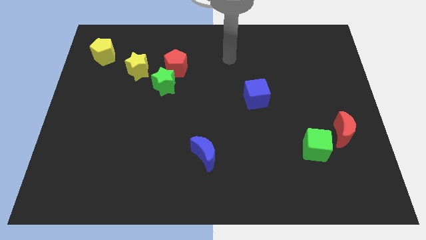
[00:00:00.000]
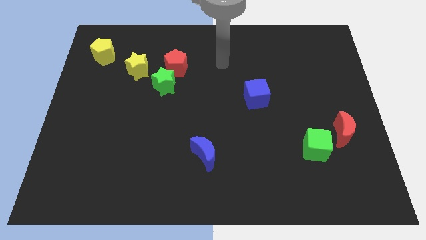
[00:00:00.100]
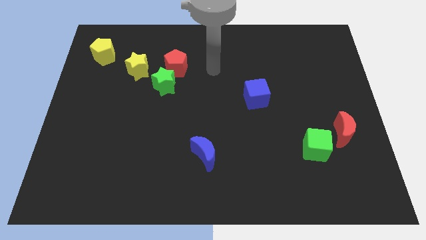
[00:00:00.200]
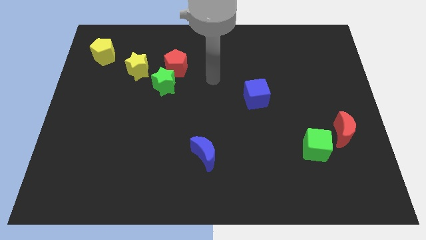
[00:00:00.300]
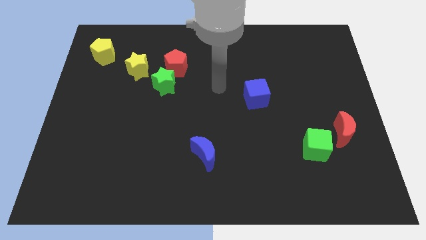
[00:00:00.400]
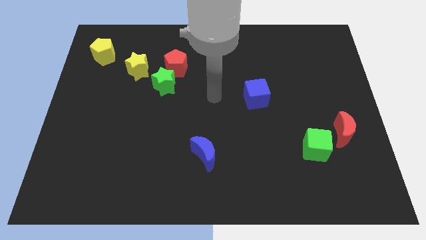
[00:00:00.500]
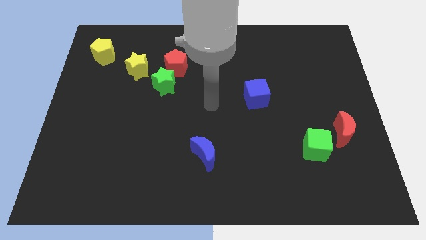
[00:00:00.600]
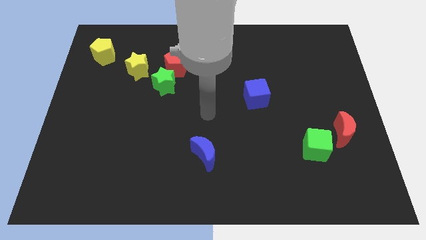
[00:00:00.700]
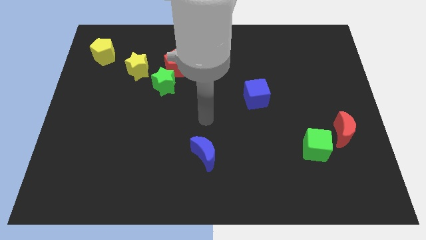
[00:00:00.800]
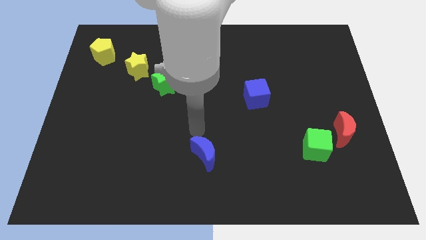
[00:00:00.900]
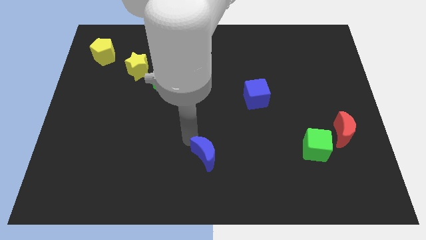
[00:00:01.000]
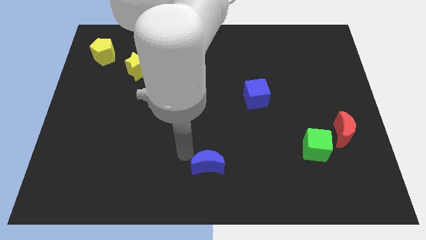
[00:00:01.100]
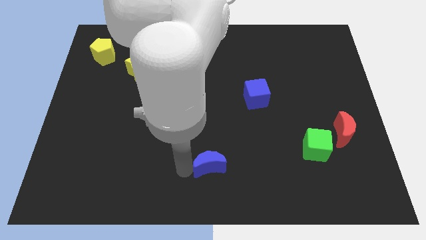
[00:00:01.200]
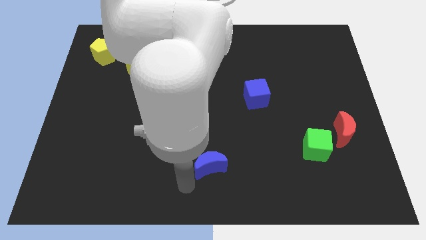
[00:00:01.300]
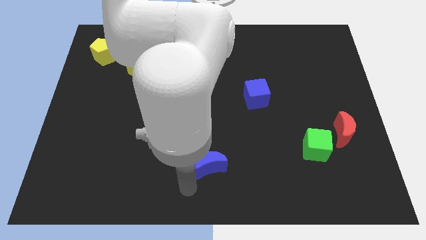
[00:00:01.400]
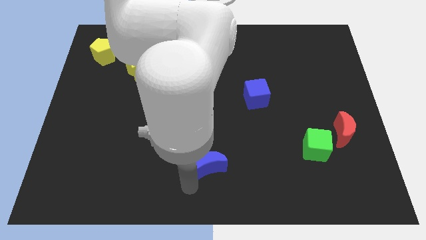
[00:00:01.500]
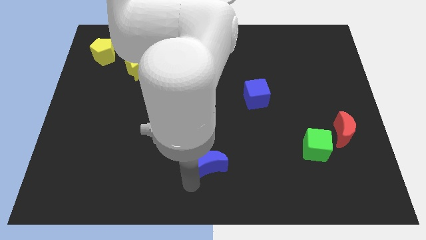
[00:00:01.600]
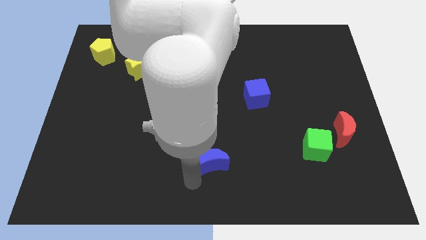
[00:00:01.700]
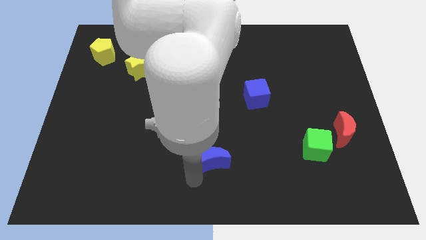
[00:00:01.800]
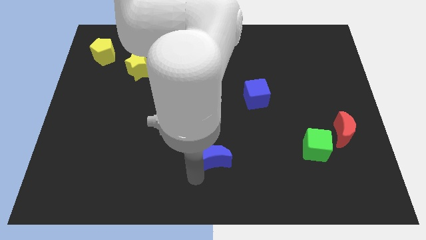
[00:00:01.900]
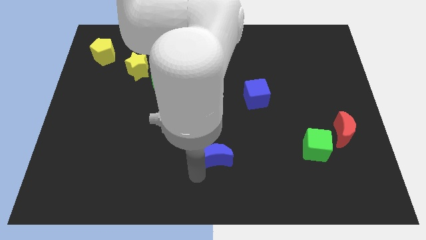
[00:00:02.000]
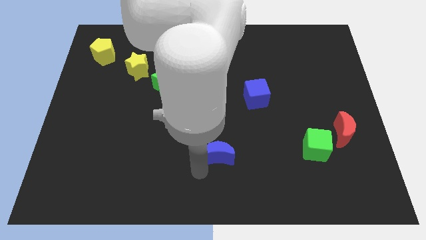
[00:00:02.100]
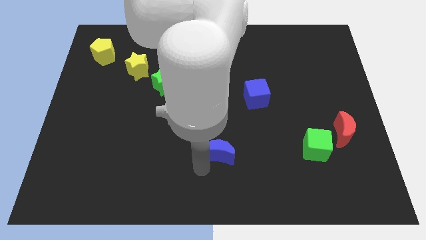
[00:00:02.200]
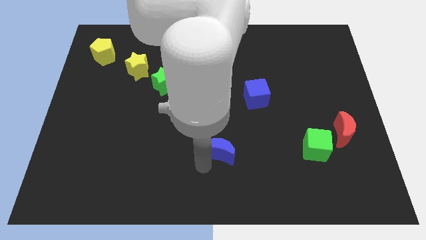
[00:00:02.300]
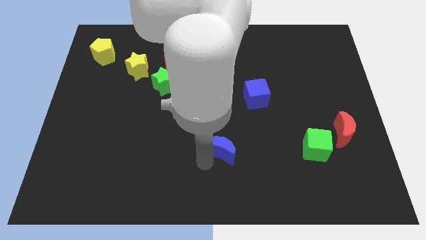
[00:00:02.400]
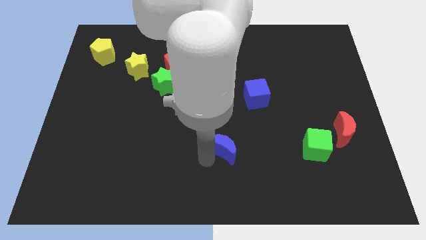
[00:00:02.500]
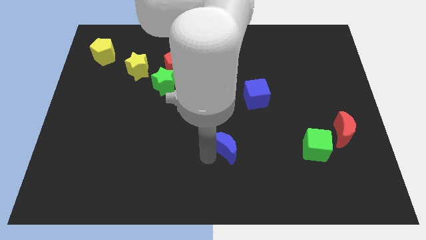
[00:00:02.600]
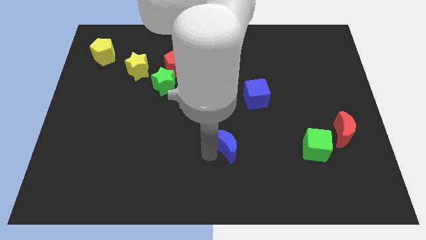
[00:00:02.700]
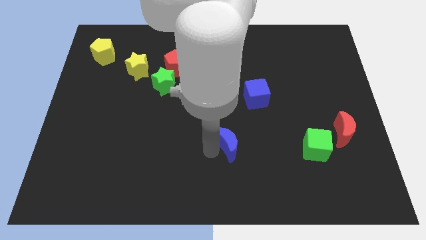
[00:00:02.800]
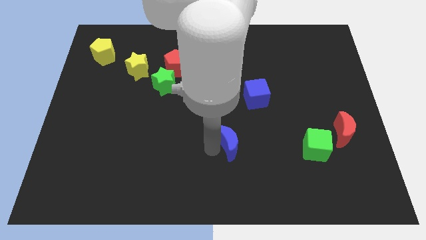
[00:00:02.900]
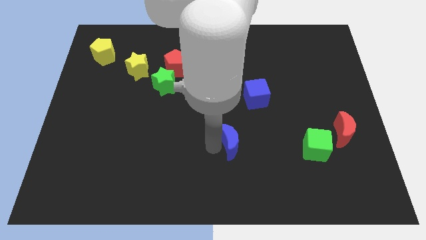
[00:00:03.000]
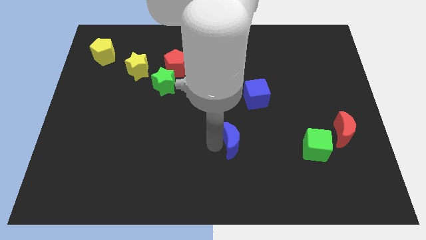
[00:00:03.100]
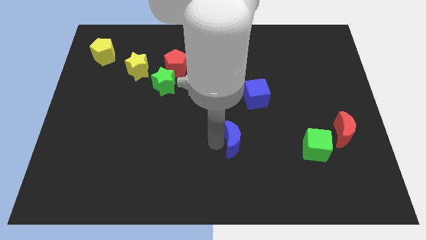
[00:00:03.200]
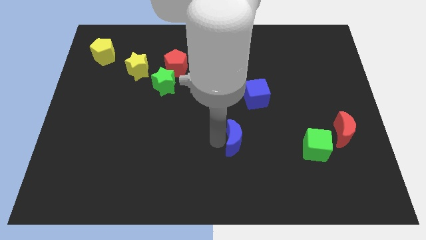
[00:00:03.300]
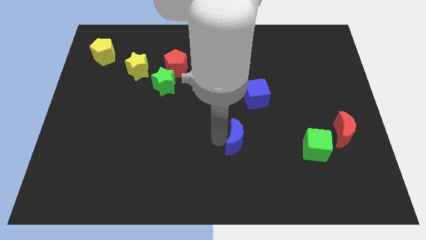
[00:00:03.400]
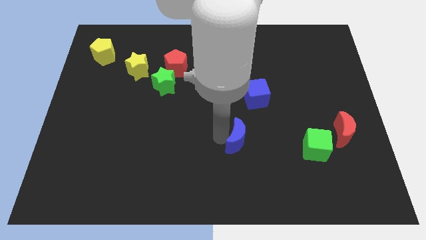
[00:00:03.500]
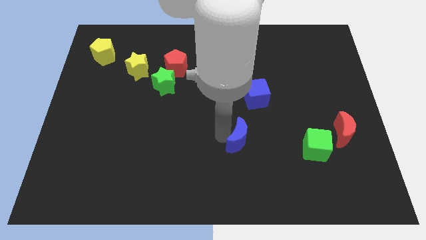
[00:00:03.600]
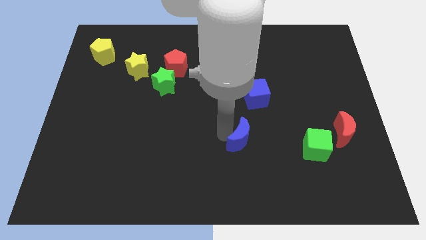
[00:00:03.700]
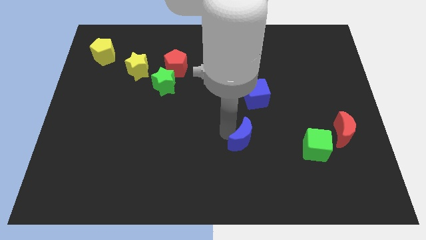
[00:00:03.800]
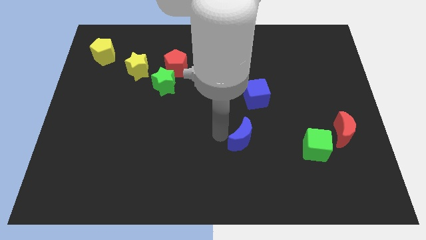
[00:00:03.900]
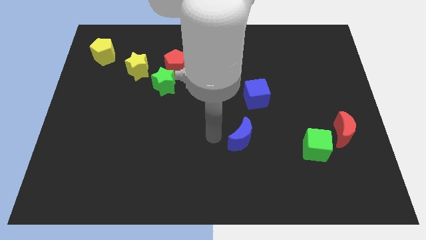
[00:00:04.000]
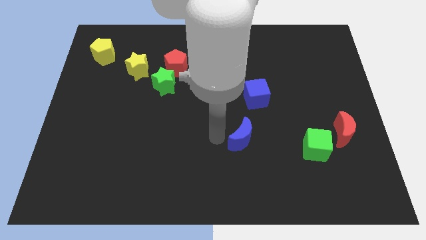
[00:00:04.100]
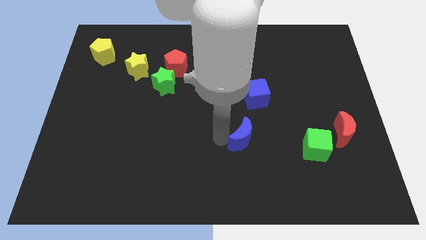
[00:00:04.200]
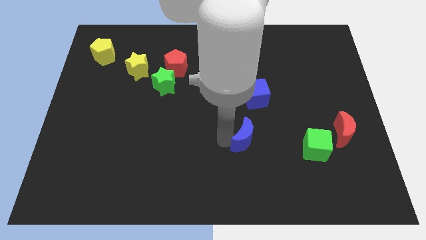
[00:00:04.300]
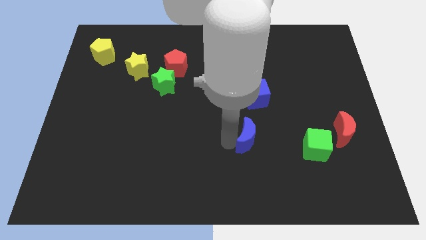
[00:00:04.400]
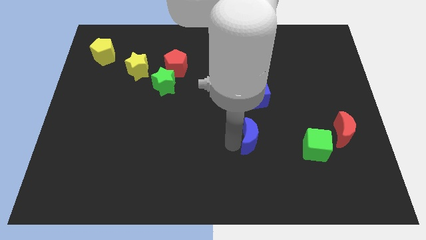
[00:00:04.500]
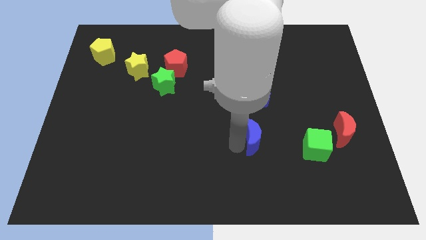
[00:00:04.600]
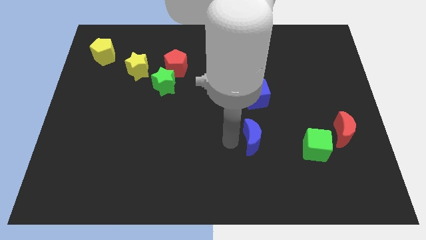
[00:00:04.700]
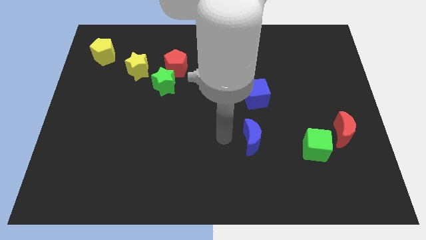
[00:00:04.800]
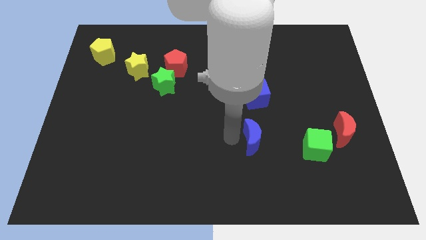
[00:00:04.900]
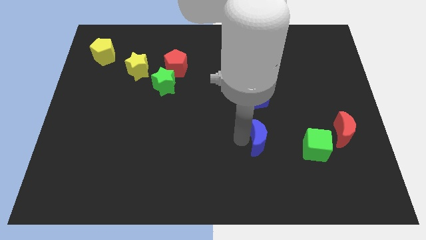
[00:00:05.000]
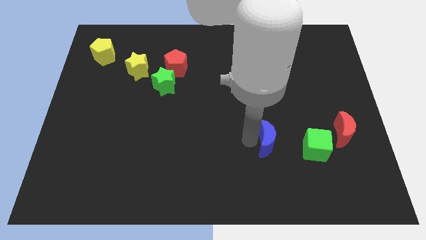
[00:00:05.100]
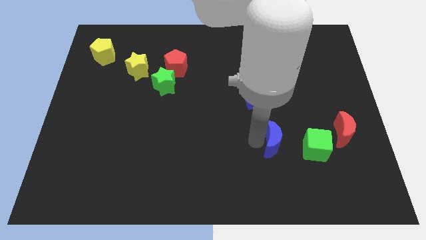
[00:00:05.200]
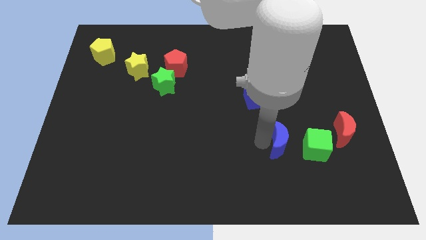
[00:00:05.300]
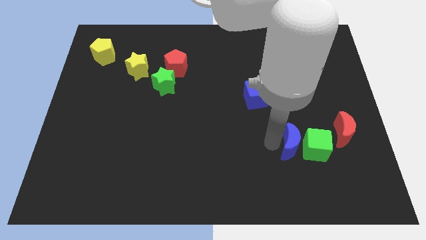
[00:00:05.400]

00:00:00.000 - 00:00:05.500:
slide the blue moon next to the green cube

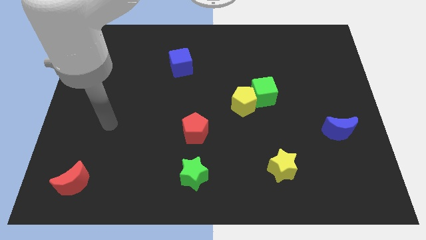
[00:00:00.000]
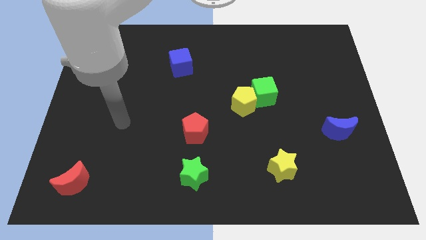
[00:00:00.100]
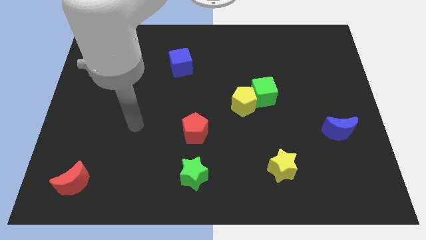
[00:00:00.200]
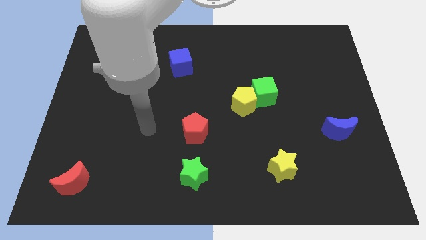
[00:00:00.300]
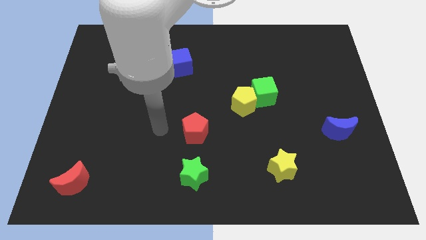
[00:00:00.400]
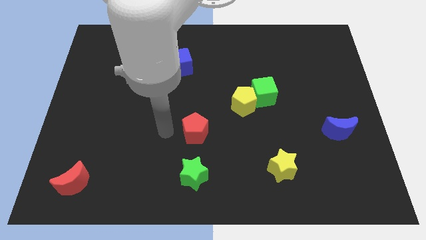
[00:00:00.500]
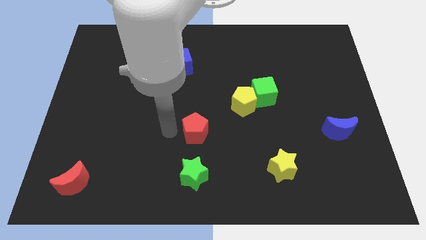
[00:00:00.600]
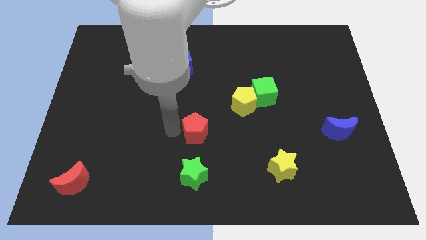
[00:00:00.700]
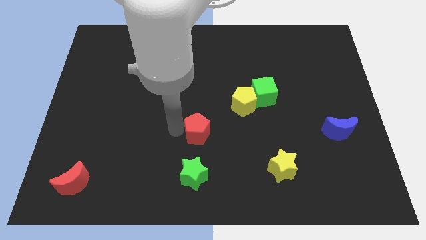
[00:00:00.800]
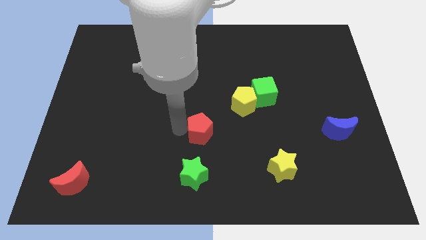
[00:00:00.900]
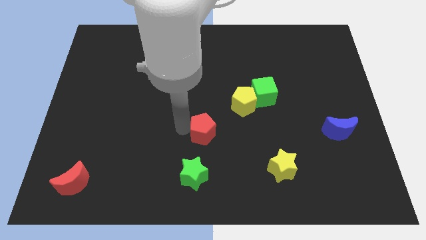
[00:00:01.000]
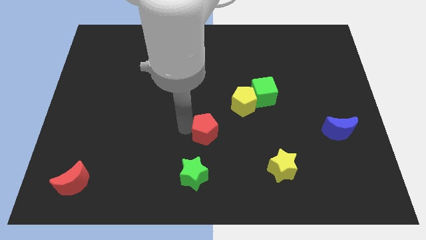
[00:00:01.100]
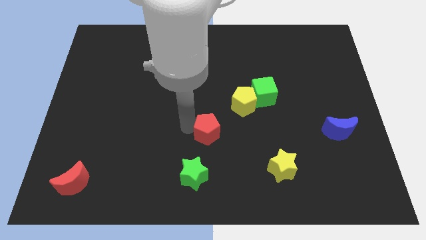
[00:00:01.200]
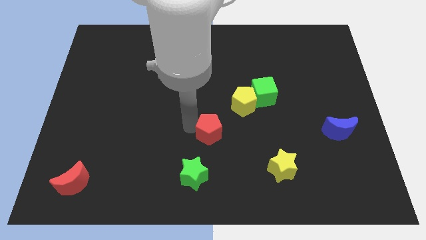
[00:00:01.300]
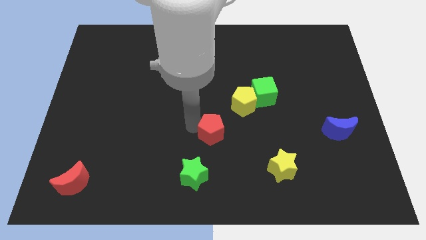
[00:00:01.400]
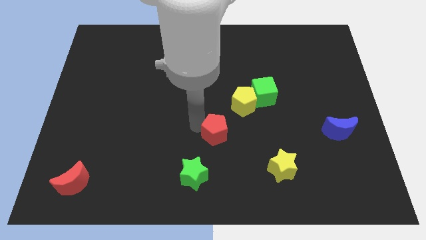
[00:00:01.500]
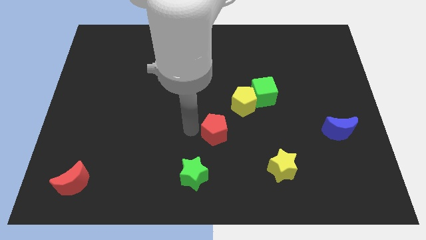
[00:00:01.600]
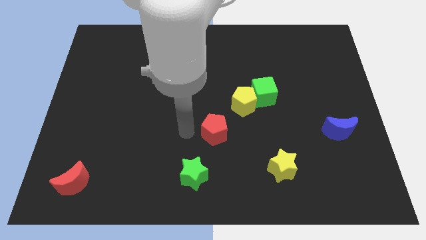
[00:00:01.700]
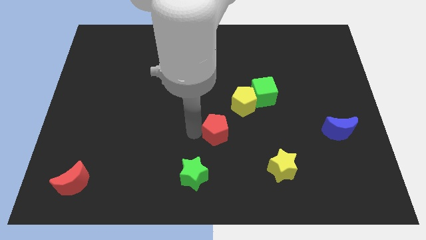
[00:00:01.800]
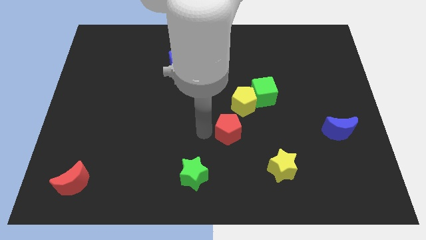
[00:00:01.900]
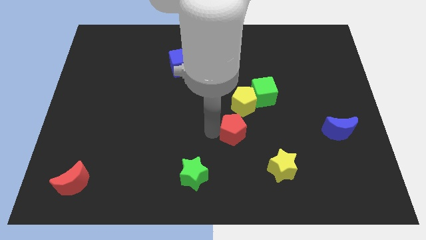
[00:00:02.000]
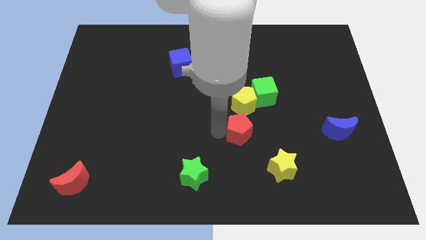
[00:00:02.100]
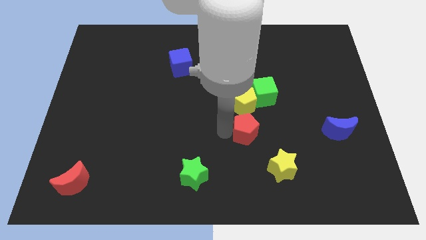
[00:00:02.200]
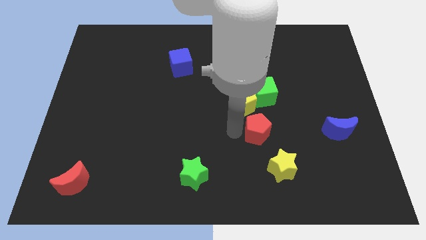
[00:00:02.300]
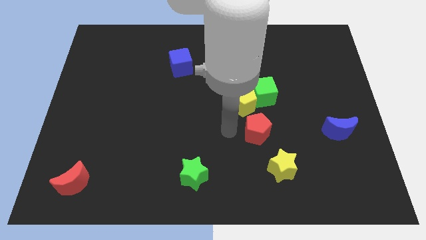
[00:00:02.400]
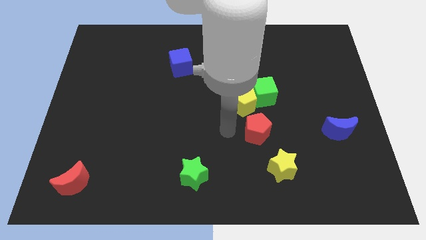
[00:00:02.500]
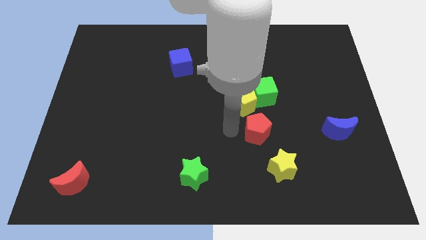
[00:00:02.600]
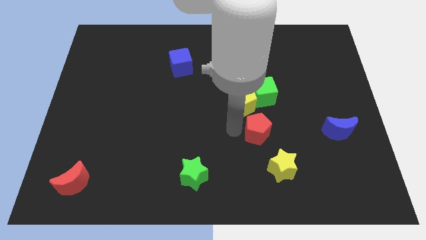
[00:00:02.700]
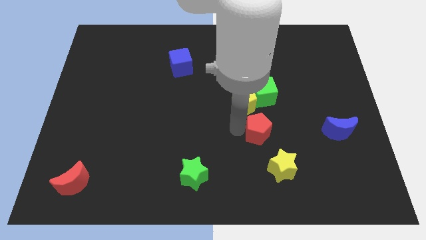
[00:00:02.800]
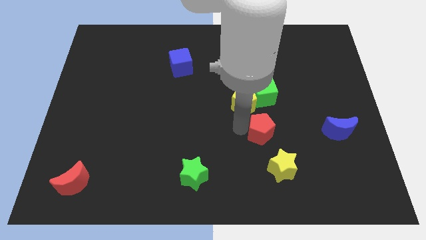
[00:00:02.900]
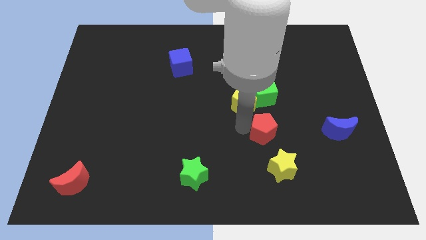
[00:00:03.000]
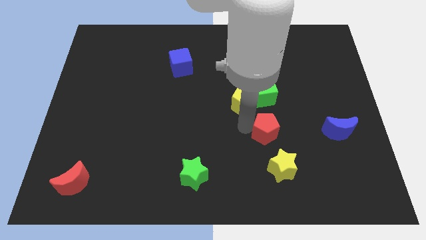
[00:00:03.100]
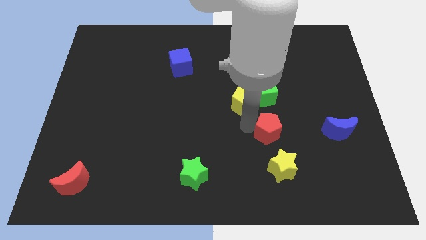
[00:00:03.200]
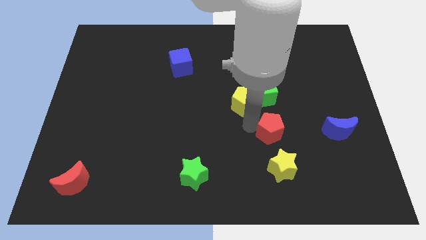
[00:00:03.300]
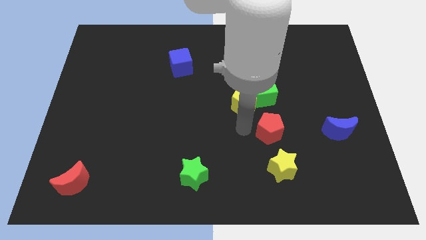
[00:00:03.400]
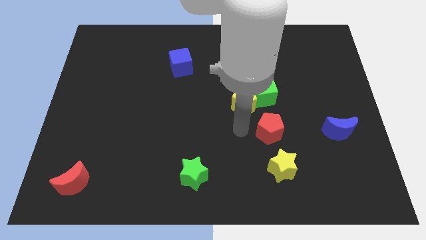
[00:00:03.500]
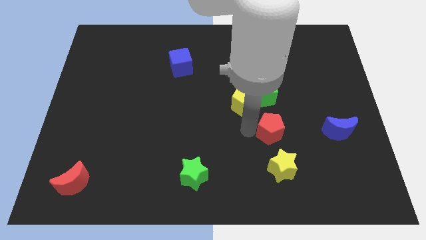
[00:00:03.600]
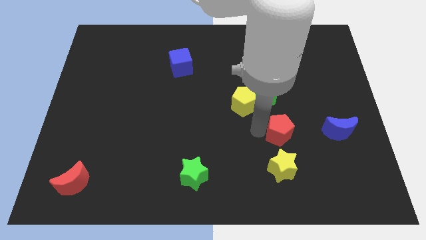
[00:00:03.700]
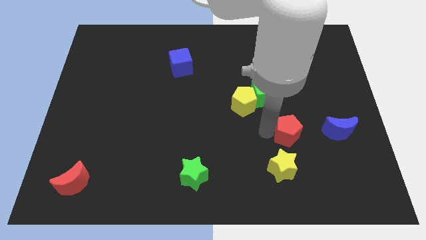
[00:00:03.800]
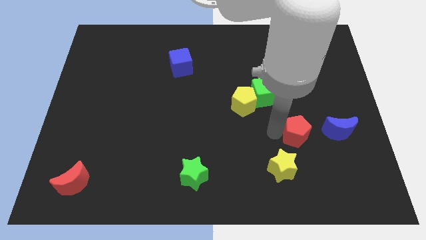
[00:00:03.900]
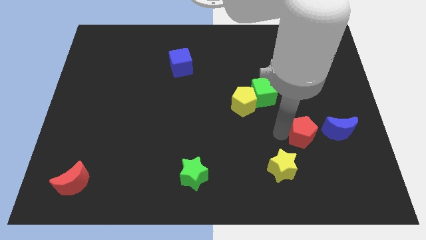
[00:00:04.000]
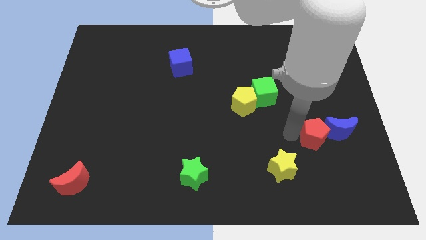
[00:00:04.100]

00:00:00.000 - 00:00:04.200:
move the red pentagon close to the blue moon
